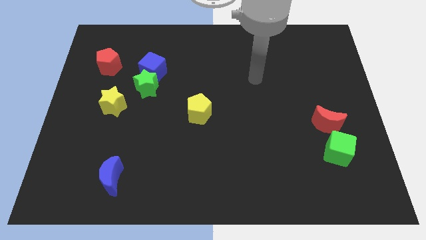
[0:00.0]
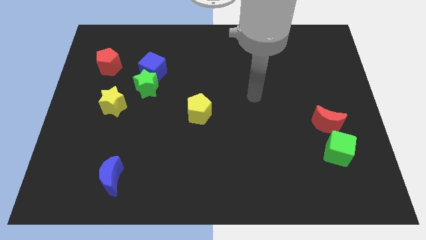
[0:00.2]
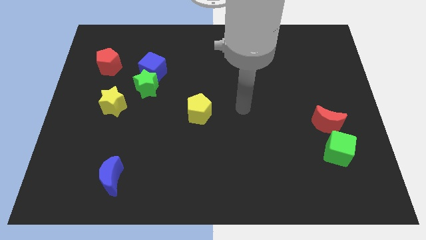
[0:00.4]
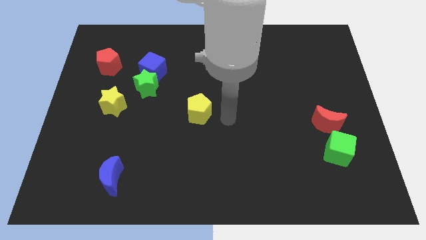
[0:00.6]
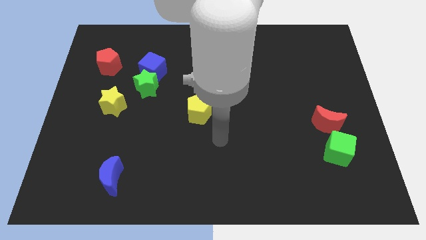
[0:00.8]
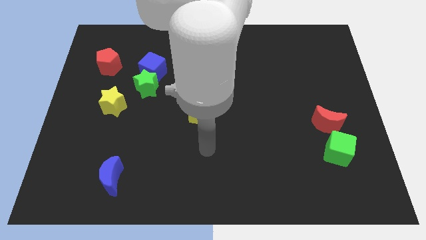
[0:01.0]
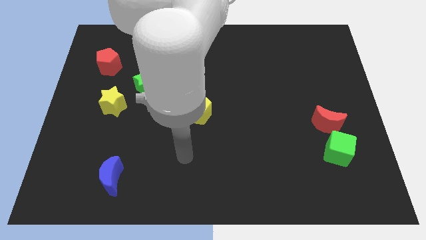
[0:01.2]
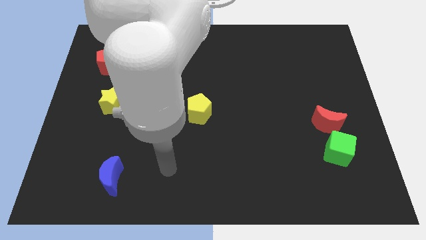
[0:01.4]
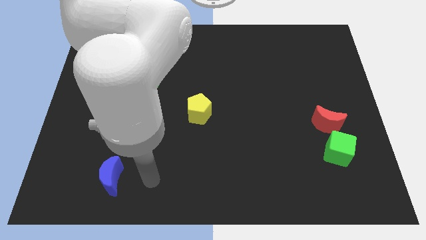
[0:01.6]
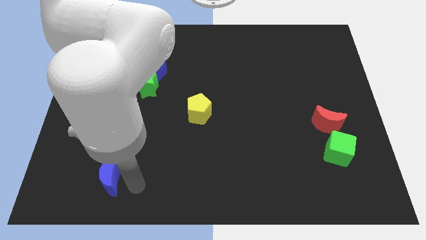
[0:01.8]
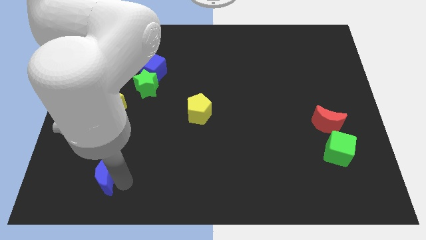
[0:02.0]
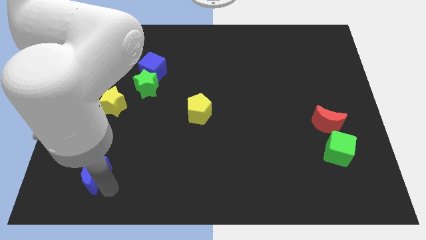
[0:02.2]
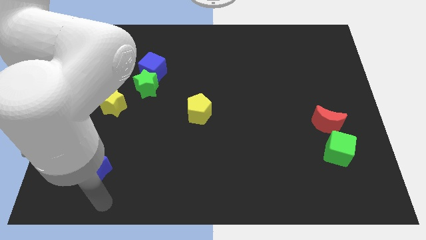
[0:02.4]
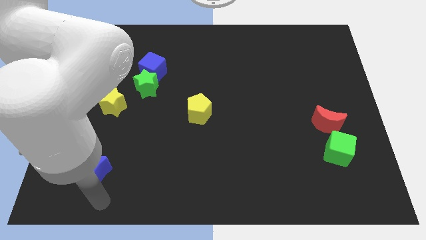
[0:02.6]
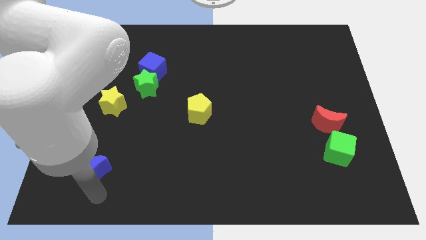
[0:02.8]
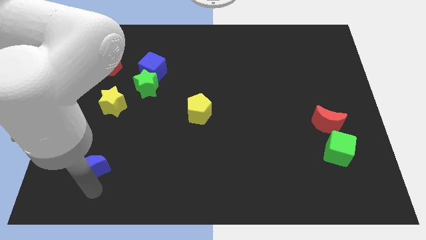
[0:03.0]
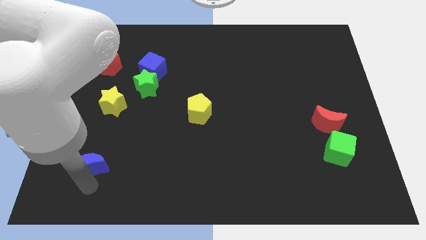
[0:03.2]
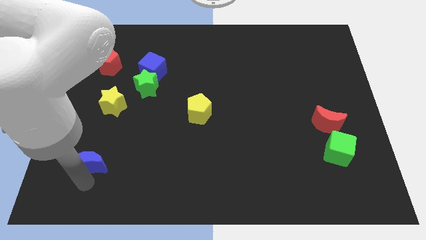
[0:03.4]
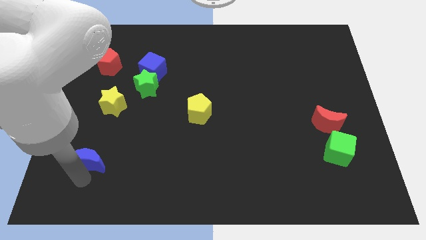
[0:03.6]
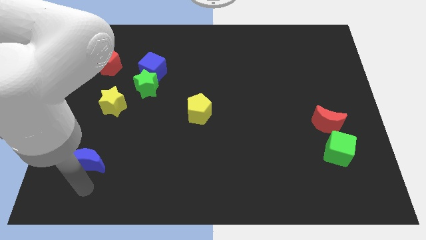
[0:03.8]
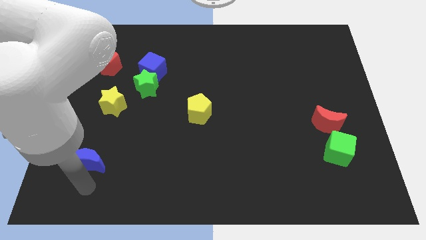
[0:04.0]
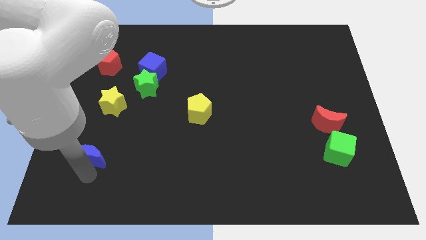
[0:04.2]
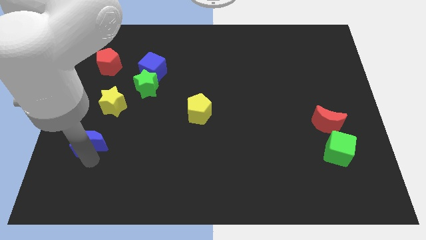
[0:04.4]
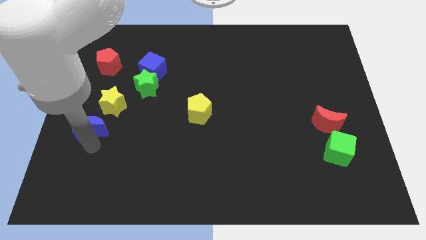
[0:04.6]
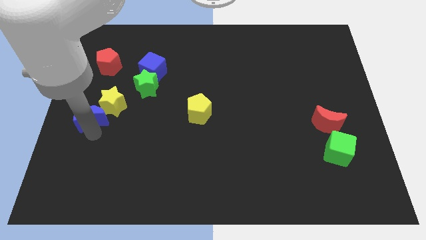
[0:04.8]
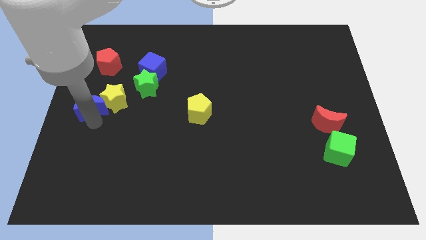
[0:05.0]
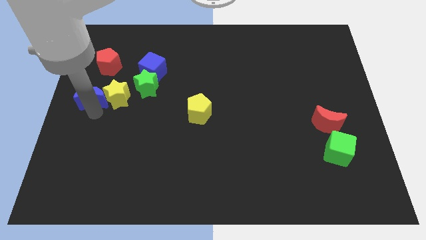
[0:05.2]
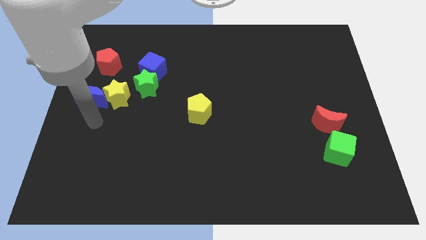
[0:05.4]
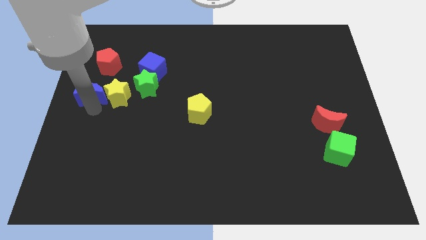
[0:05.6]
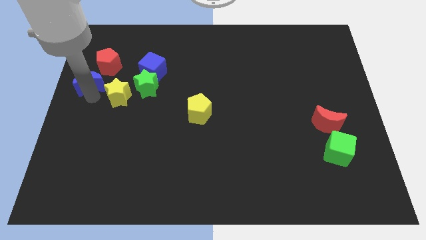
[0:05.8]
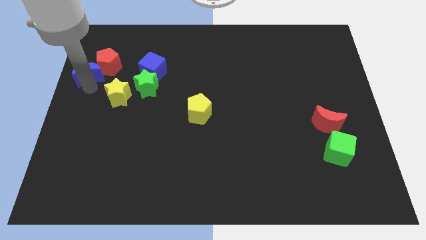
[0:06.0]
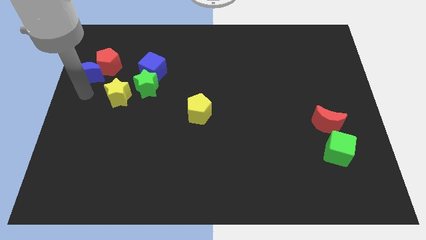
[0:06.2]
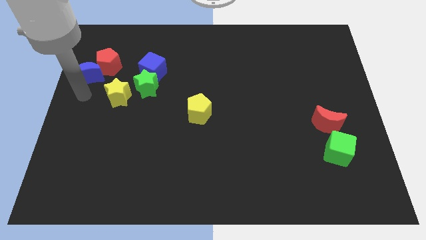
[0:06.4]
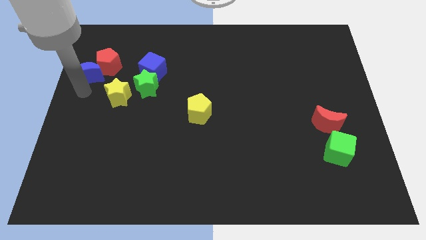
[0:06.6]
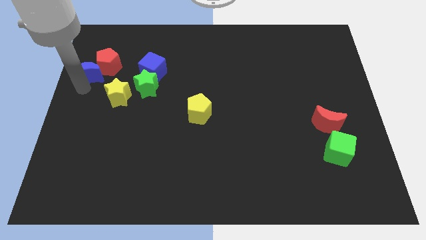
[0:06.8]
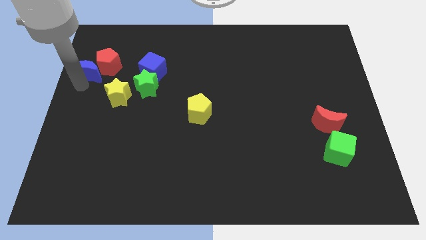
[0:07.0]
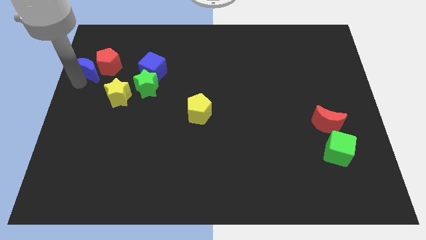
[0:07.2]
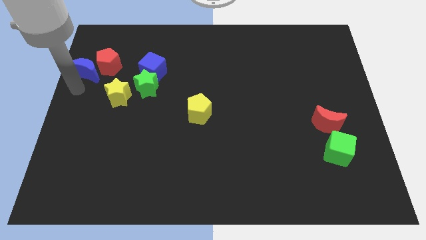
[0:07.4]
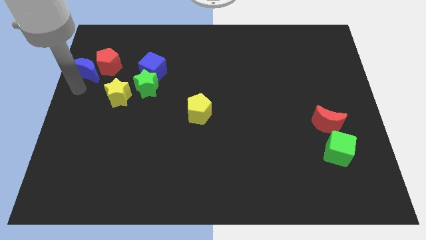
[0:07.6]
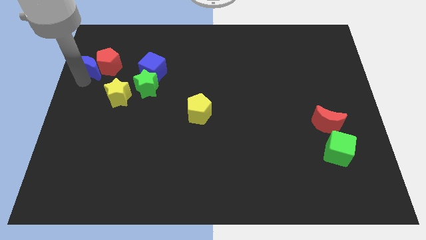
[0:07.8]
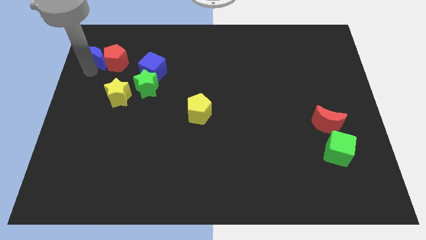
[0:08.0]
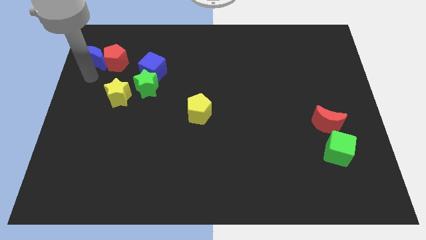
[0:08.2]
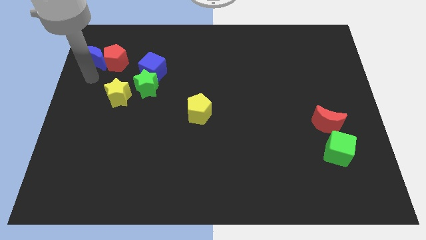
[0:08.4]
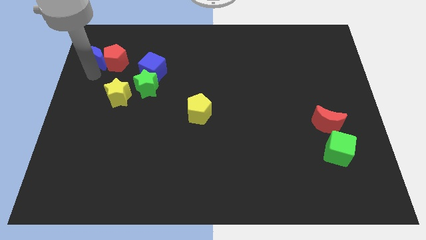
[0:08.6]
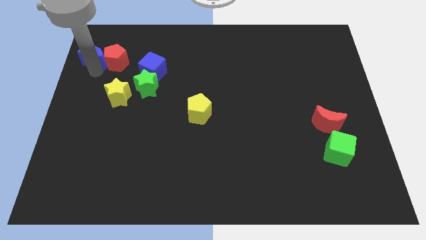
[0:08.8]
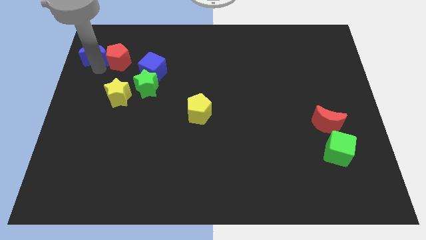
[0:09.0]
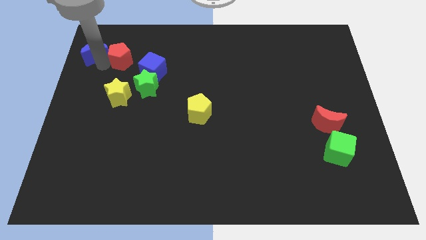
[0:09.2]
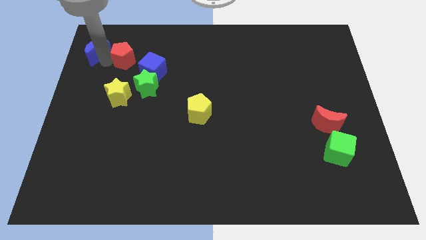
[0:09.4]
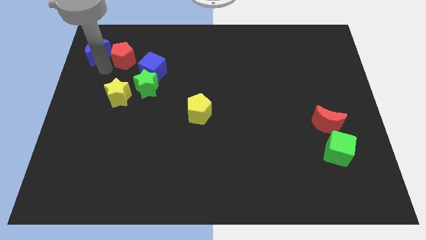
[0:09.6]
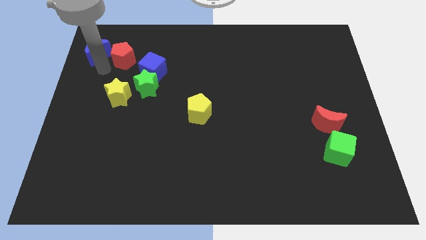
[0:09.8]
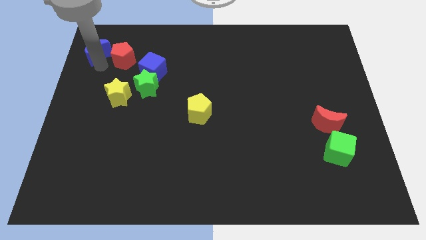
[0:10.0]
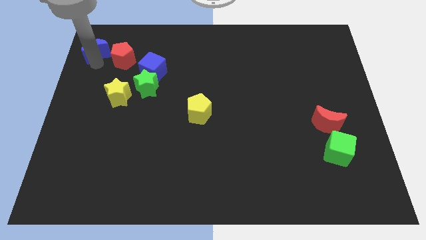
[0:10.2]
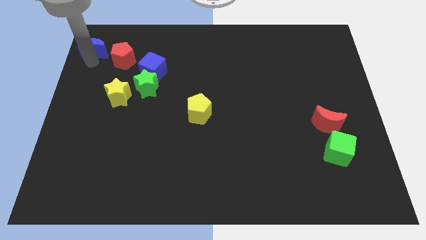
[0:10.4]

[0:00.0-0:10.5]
move the blue moon to the top left
